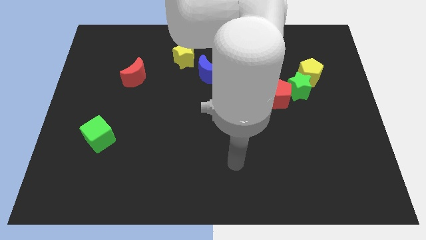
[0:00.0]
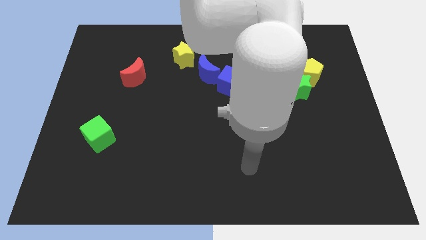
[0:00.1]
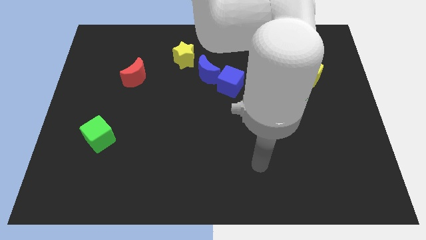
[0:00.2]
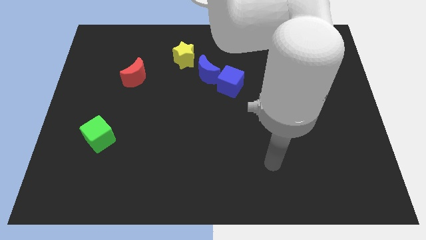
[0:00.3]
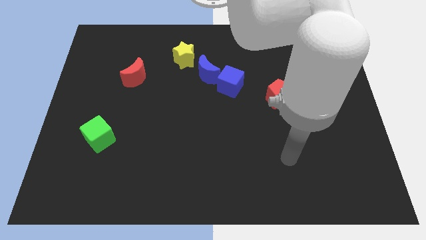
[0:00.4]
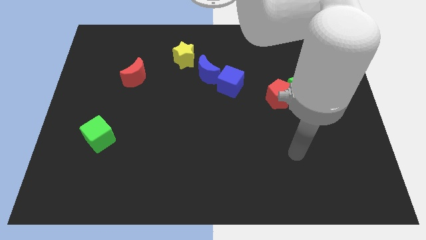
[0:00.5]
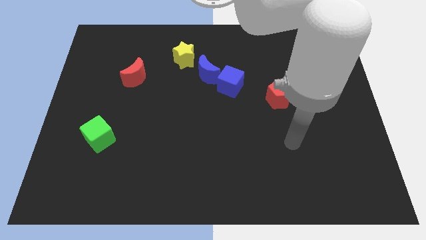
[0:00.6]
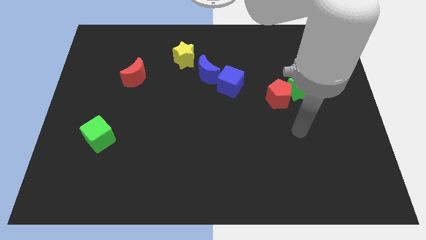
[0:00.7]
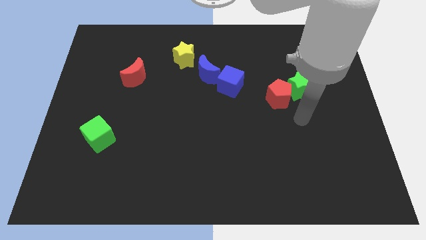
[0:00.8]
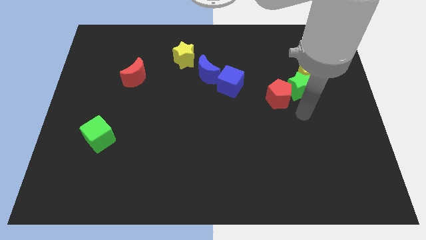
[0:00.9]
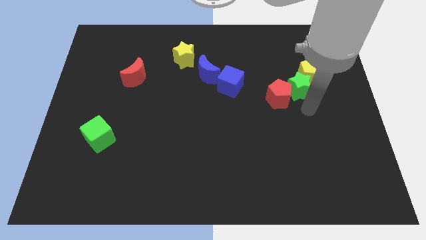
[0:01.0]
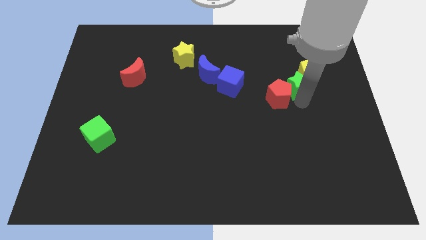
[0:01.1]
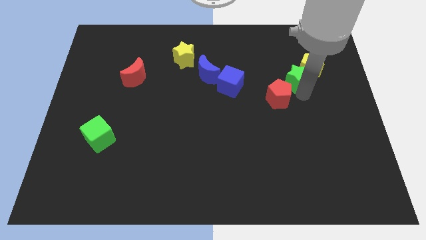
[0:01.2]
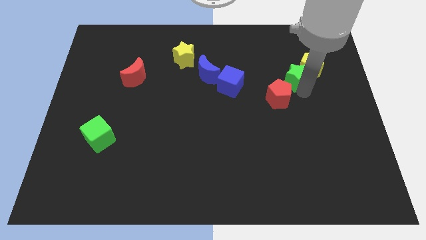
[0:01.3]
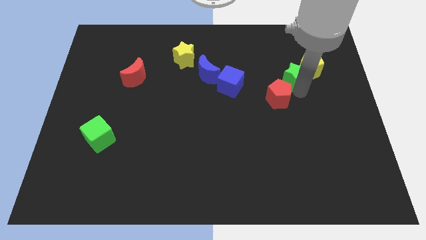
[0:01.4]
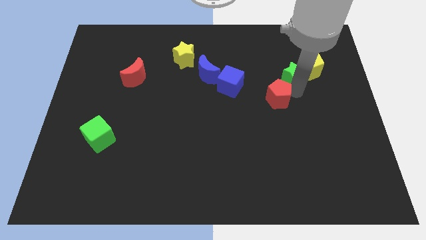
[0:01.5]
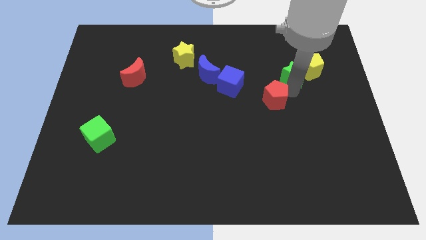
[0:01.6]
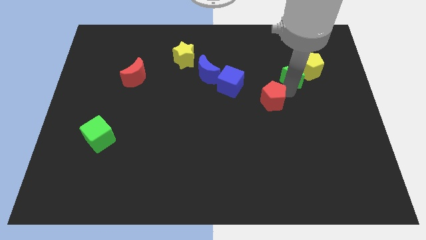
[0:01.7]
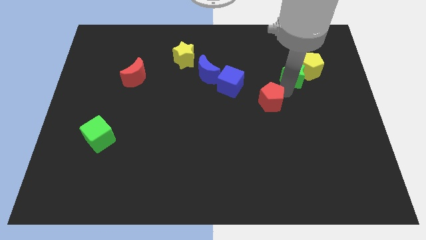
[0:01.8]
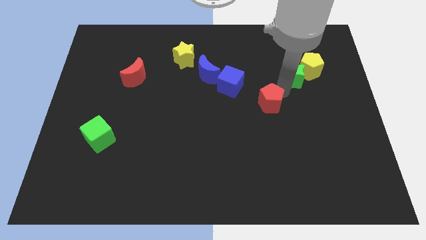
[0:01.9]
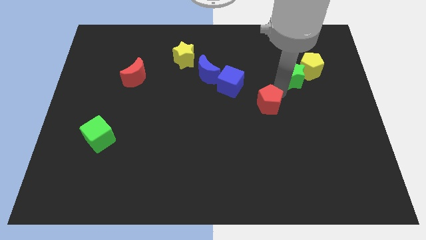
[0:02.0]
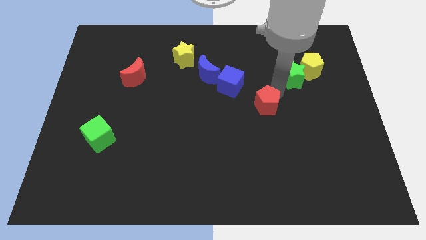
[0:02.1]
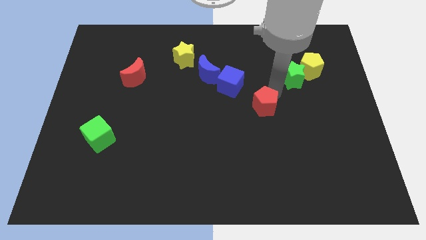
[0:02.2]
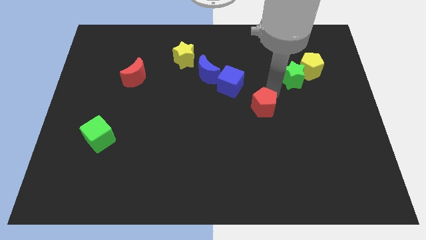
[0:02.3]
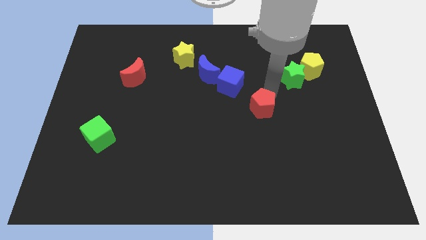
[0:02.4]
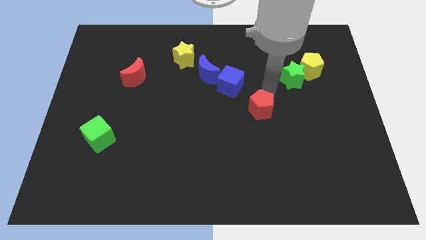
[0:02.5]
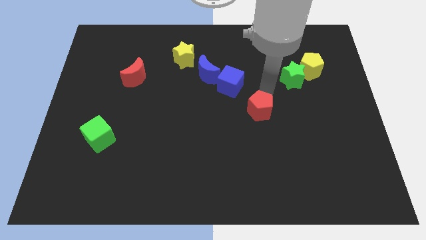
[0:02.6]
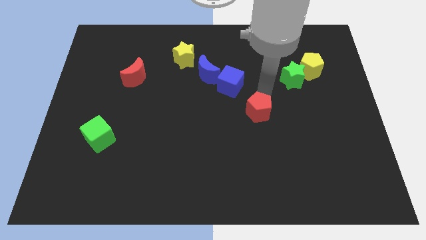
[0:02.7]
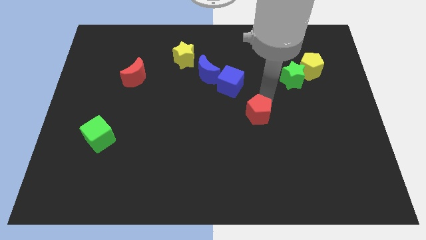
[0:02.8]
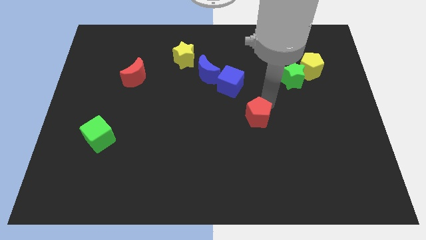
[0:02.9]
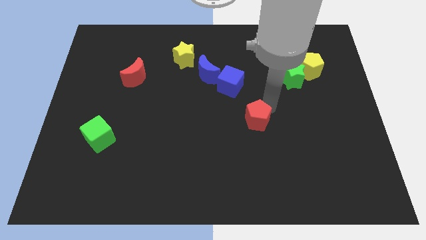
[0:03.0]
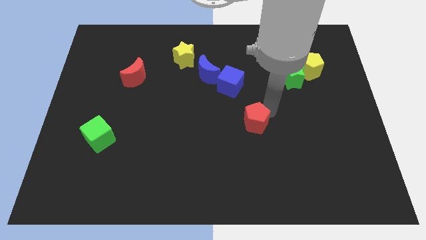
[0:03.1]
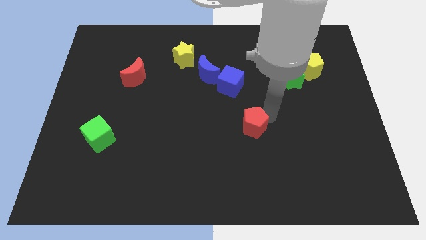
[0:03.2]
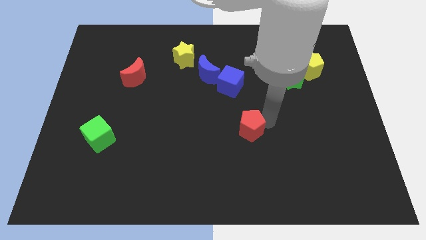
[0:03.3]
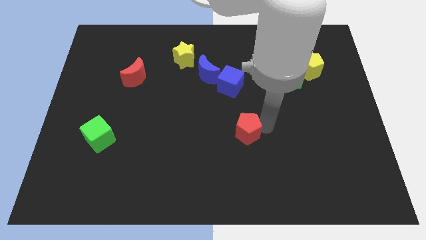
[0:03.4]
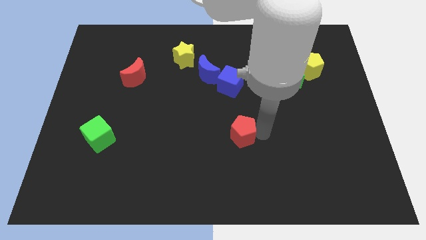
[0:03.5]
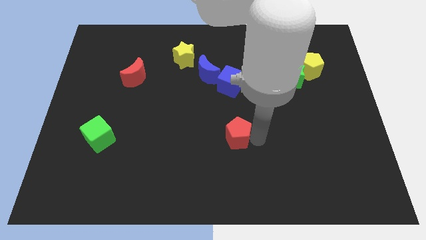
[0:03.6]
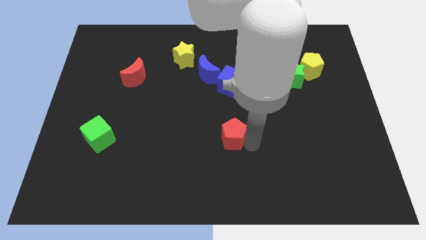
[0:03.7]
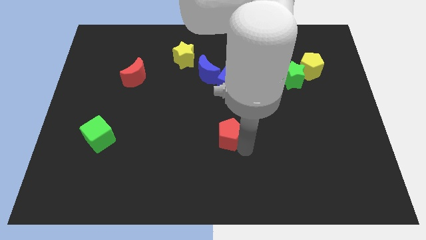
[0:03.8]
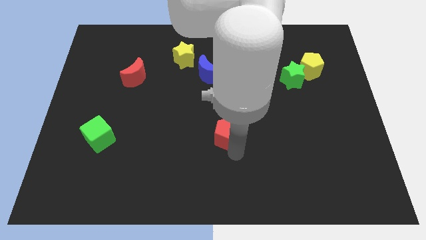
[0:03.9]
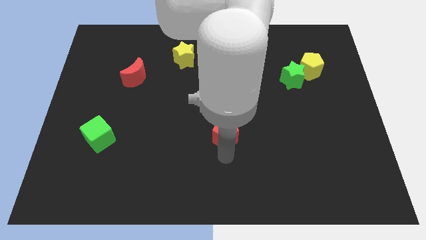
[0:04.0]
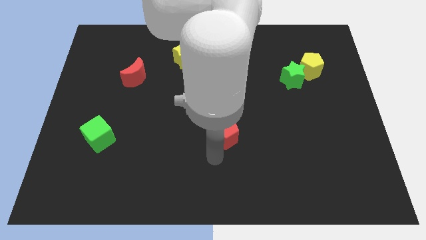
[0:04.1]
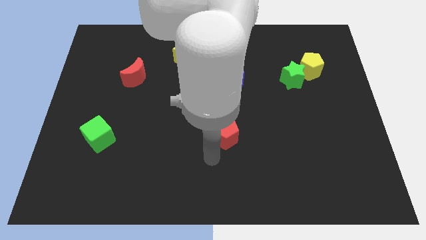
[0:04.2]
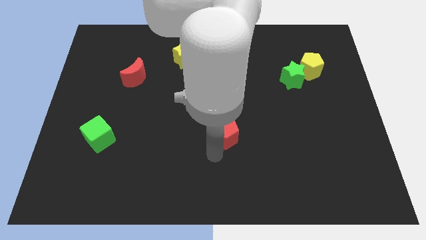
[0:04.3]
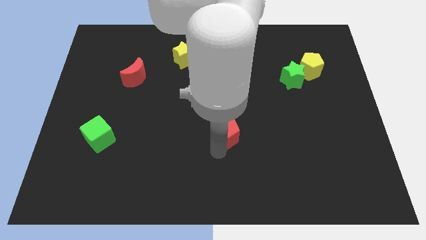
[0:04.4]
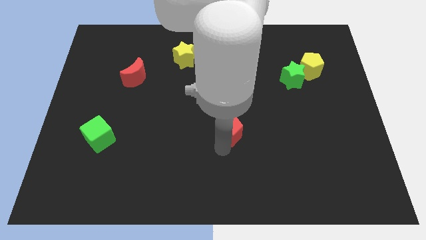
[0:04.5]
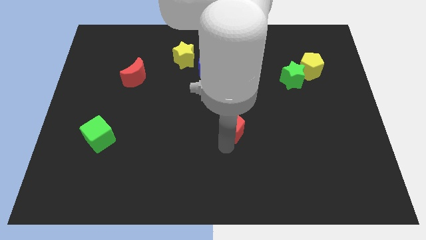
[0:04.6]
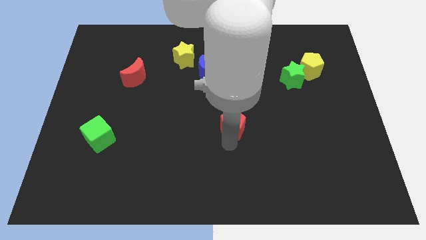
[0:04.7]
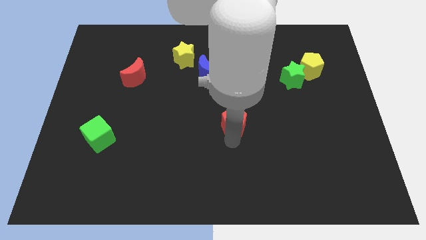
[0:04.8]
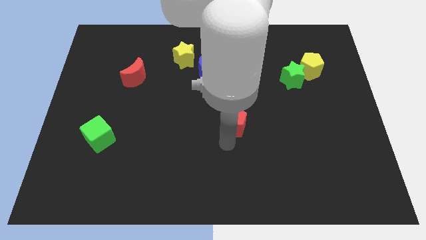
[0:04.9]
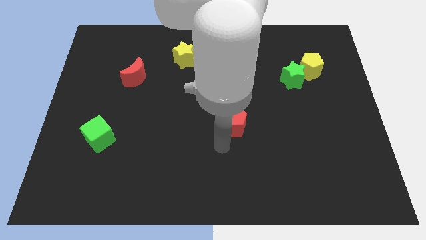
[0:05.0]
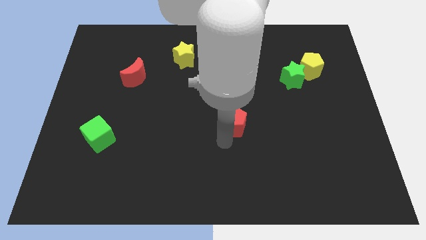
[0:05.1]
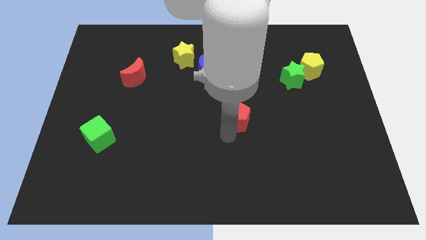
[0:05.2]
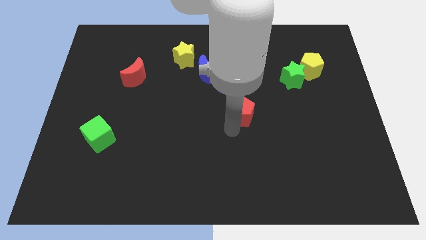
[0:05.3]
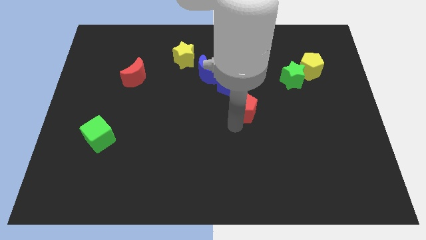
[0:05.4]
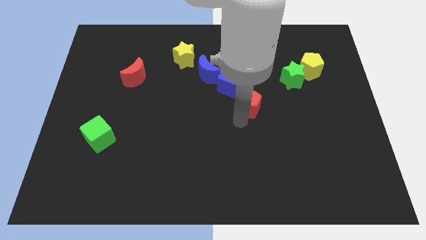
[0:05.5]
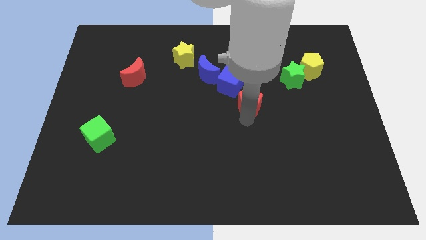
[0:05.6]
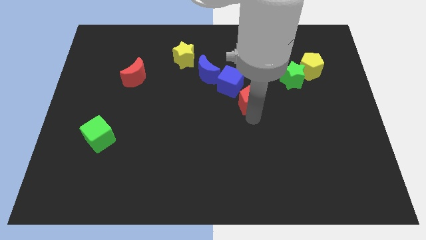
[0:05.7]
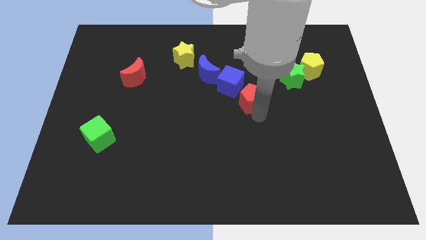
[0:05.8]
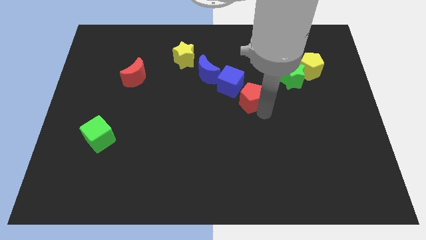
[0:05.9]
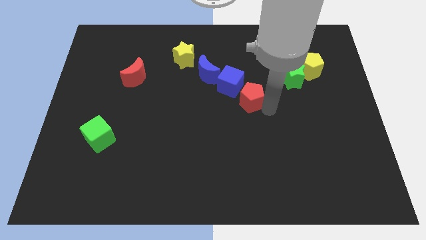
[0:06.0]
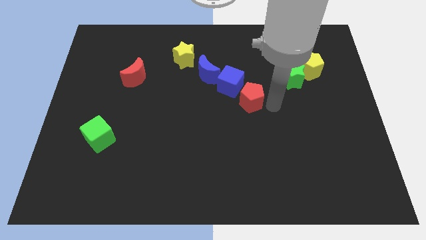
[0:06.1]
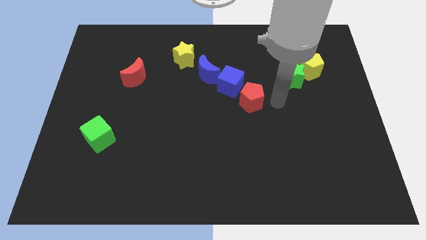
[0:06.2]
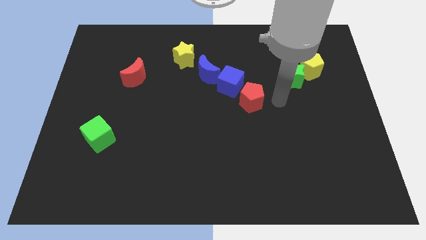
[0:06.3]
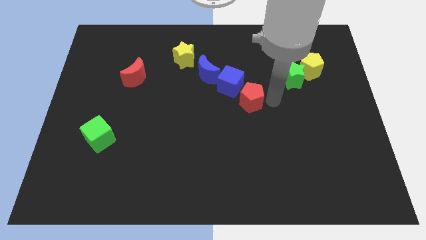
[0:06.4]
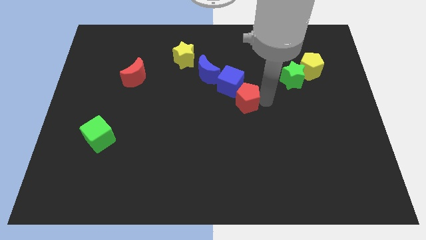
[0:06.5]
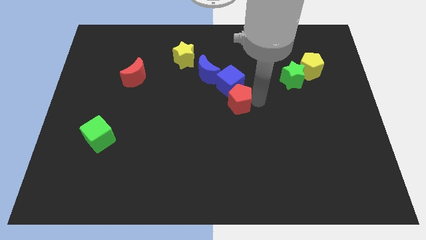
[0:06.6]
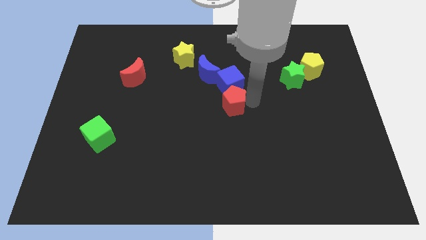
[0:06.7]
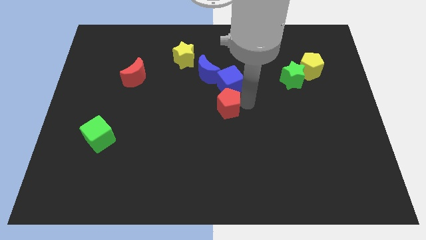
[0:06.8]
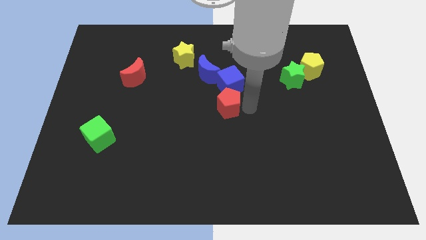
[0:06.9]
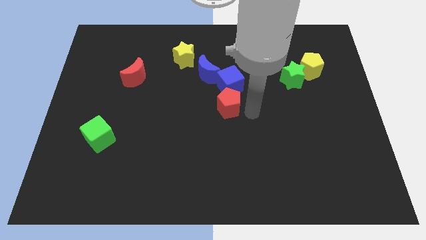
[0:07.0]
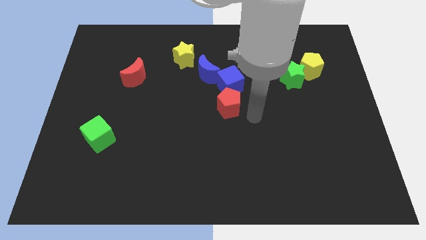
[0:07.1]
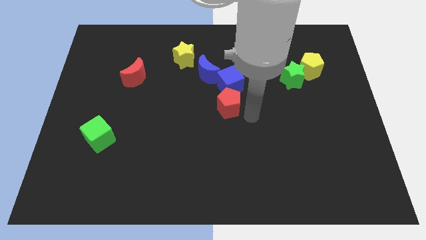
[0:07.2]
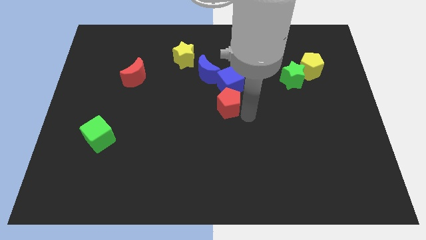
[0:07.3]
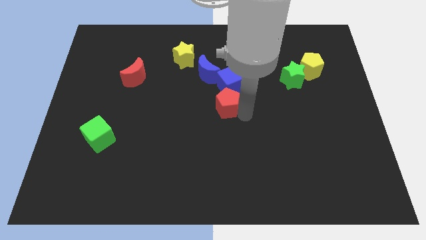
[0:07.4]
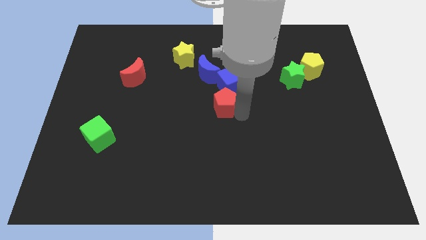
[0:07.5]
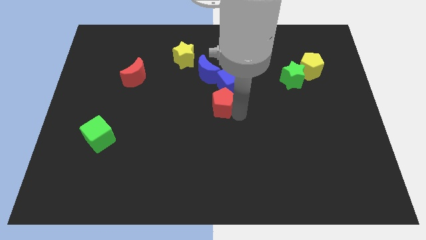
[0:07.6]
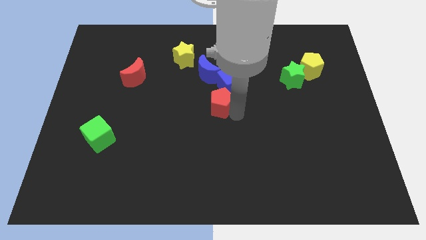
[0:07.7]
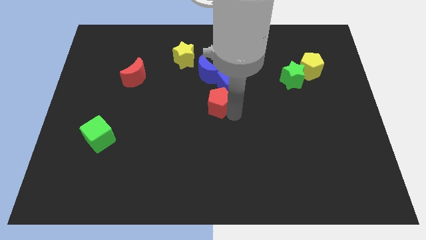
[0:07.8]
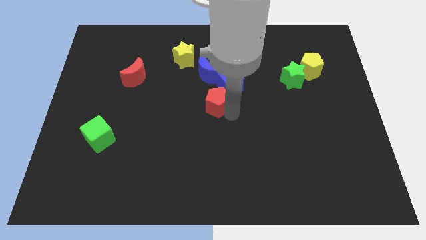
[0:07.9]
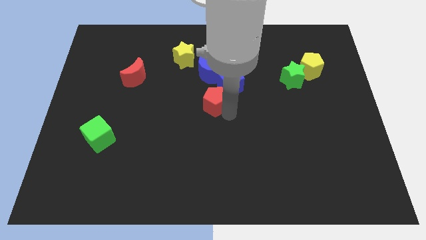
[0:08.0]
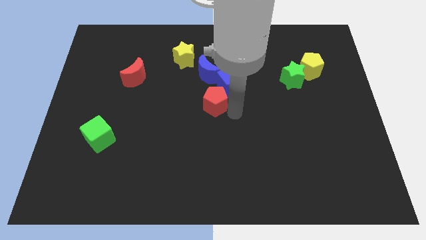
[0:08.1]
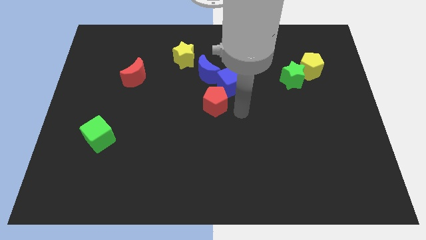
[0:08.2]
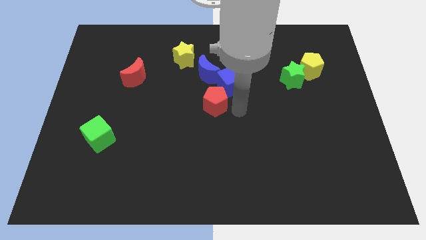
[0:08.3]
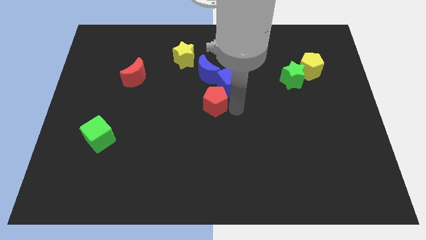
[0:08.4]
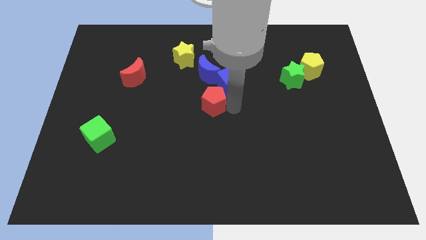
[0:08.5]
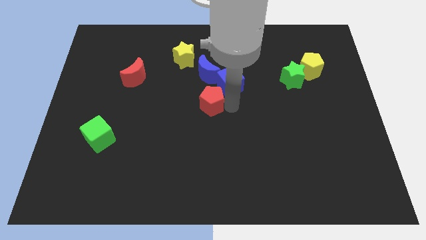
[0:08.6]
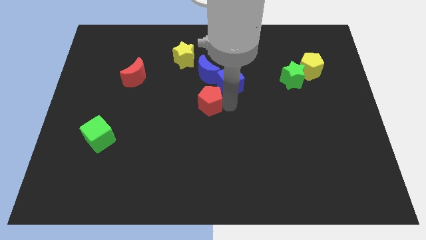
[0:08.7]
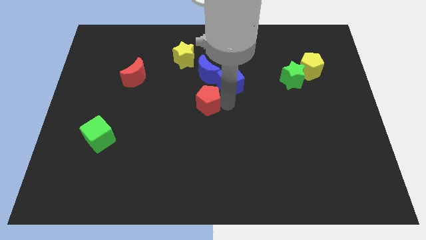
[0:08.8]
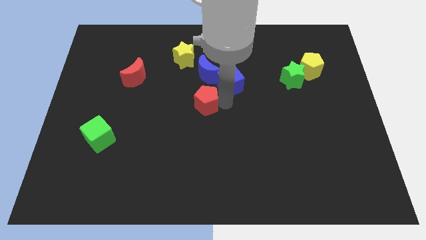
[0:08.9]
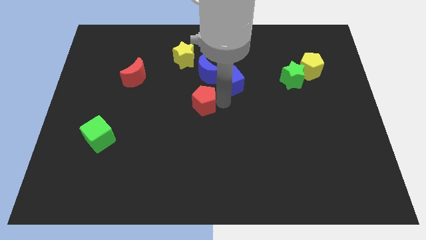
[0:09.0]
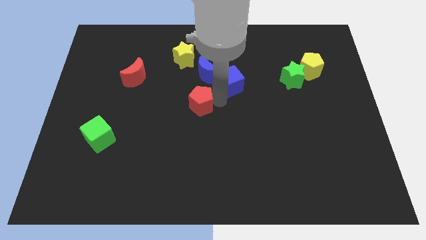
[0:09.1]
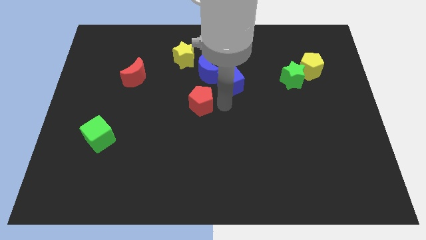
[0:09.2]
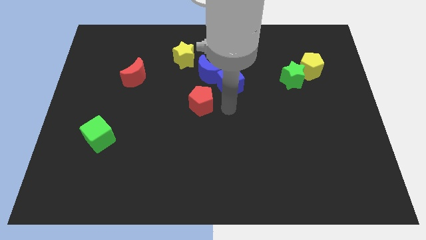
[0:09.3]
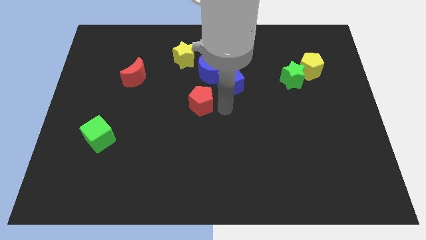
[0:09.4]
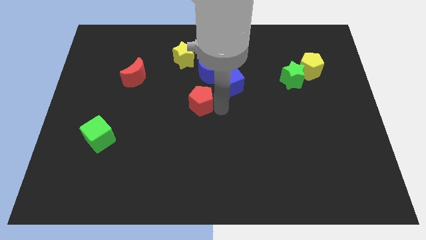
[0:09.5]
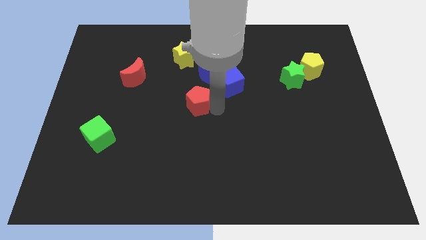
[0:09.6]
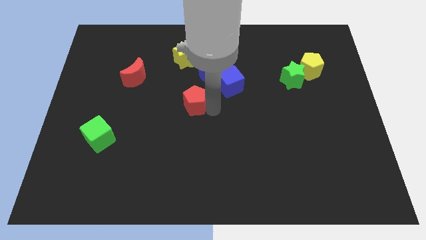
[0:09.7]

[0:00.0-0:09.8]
slide the red pentagon left
